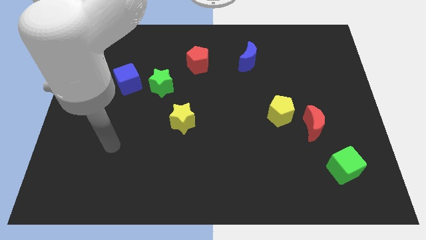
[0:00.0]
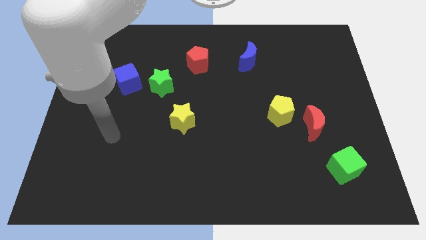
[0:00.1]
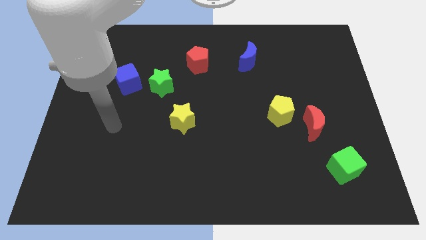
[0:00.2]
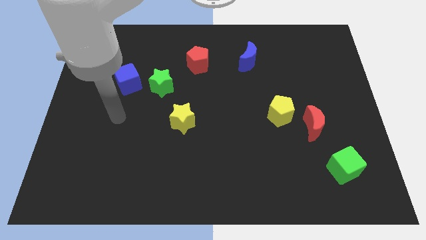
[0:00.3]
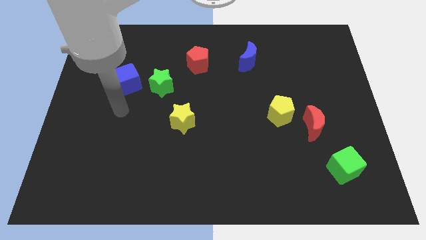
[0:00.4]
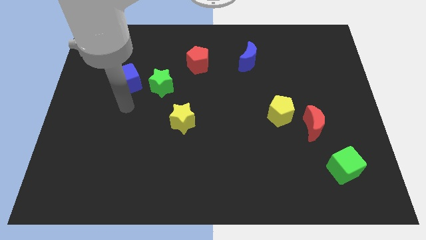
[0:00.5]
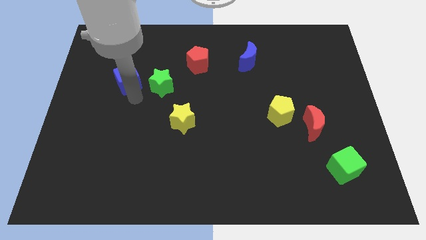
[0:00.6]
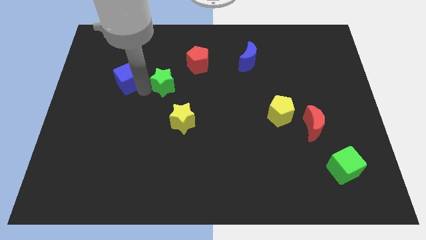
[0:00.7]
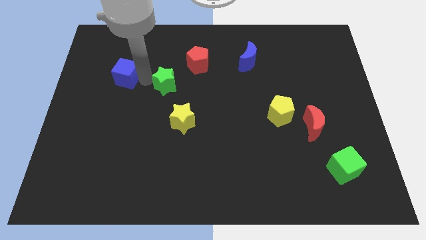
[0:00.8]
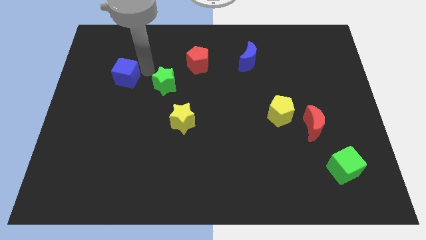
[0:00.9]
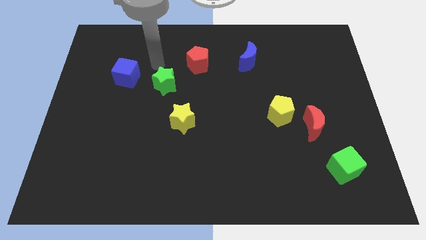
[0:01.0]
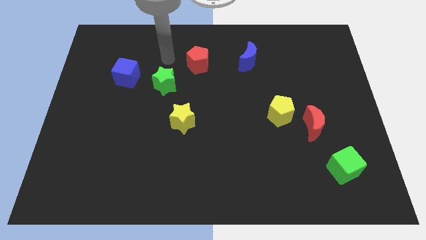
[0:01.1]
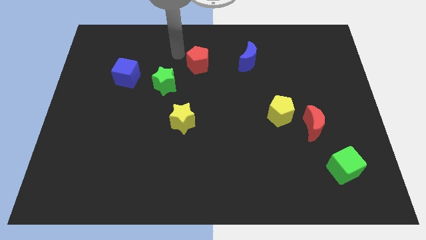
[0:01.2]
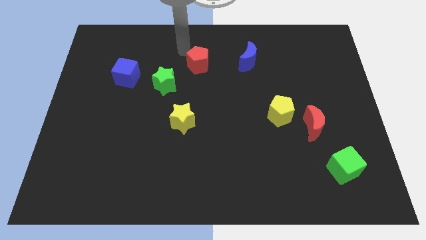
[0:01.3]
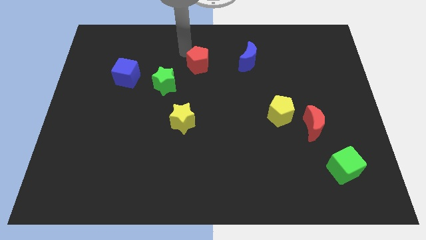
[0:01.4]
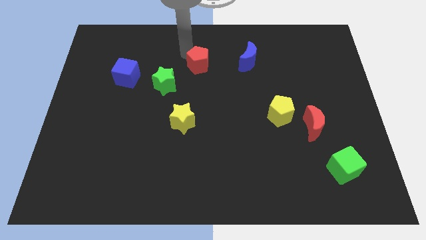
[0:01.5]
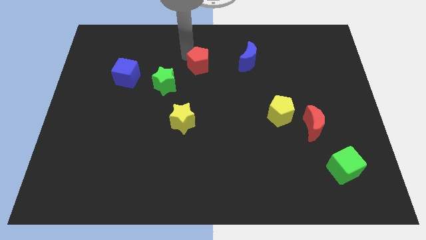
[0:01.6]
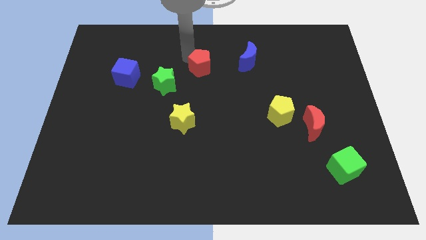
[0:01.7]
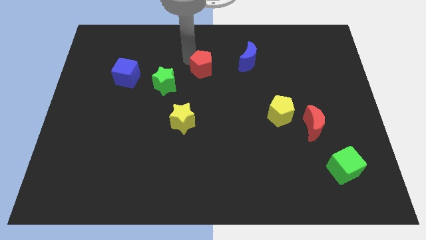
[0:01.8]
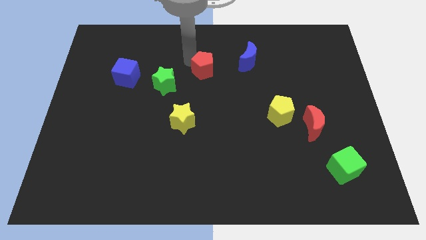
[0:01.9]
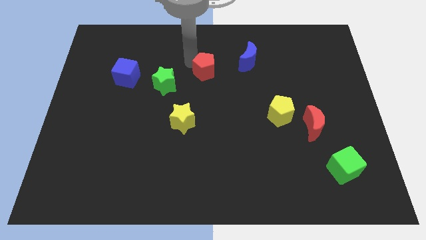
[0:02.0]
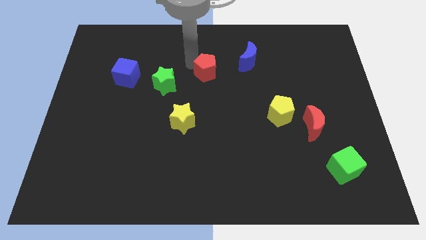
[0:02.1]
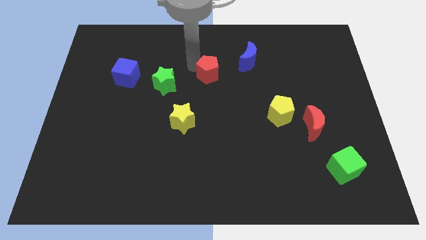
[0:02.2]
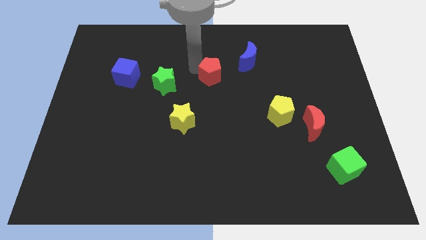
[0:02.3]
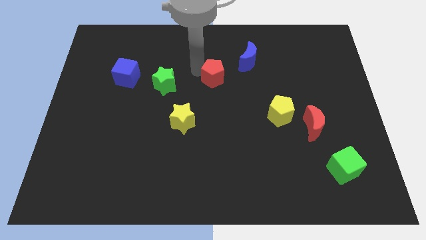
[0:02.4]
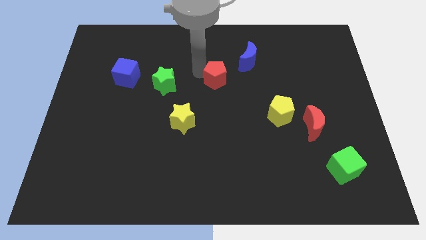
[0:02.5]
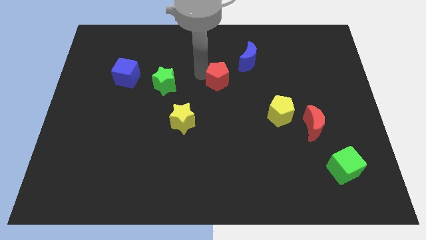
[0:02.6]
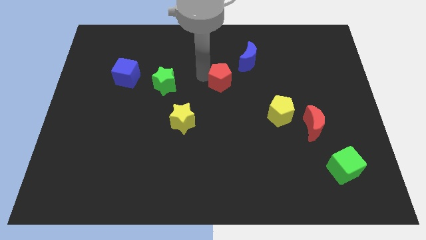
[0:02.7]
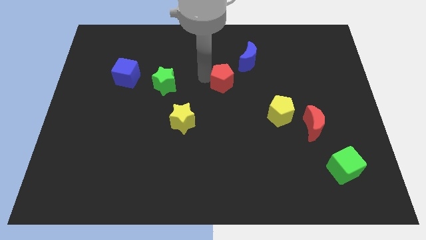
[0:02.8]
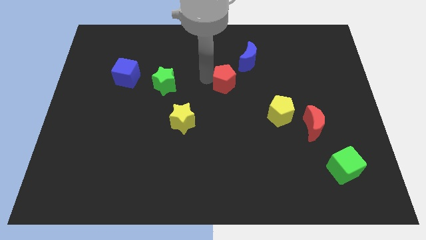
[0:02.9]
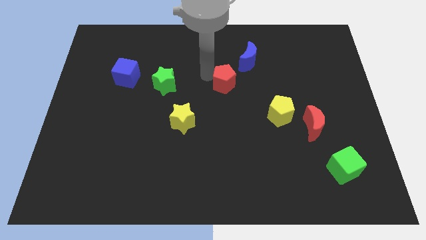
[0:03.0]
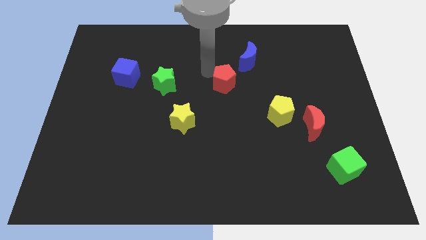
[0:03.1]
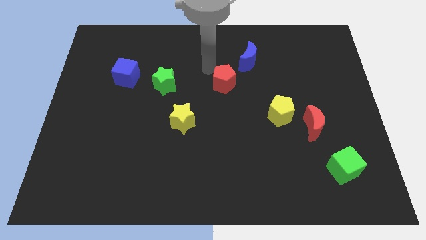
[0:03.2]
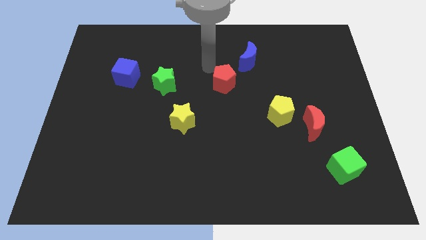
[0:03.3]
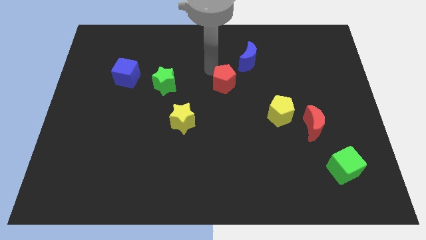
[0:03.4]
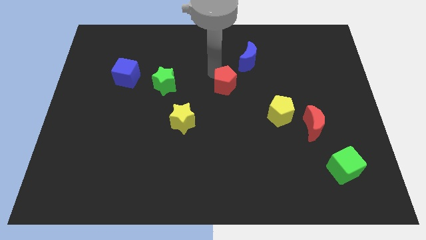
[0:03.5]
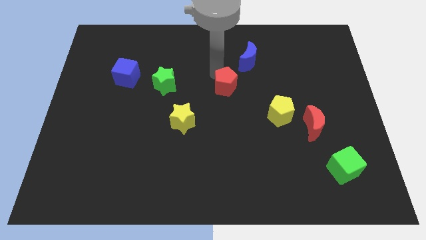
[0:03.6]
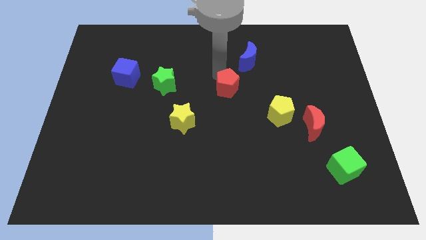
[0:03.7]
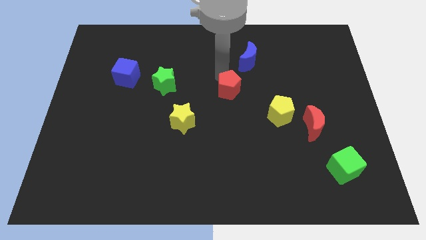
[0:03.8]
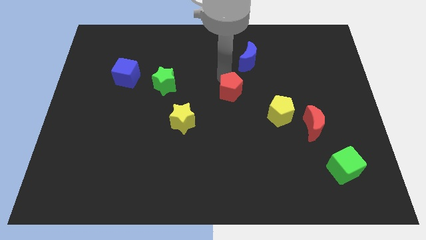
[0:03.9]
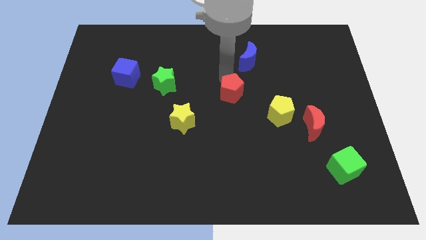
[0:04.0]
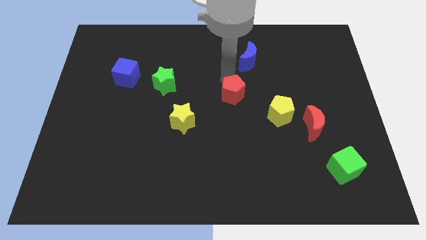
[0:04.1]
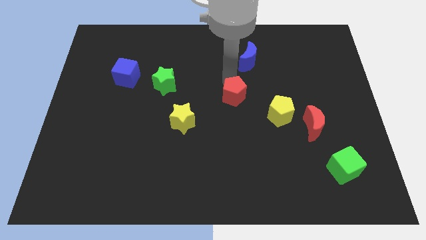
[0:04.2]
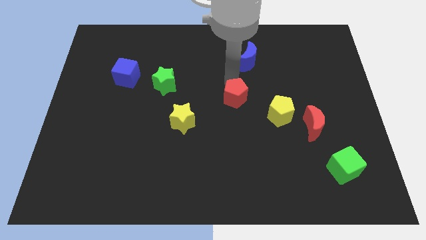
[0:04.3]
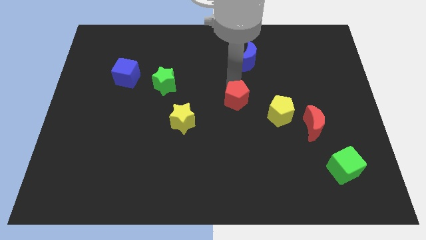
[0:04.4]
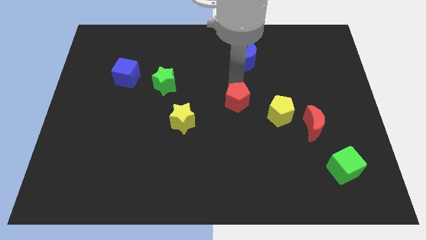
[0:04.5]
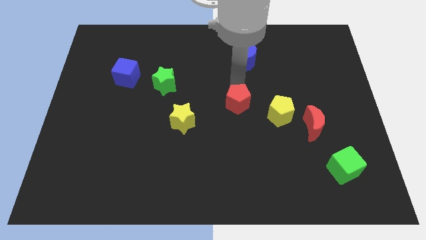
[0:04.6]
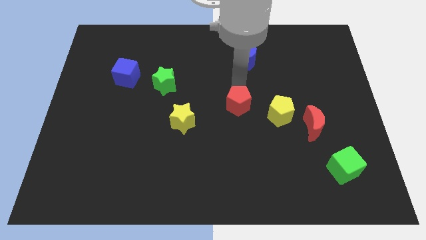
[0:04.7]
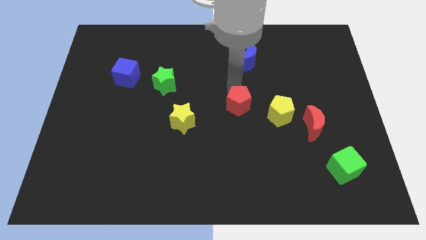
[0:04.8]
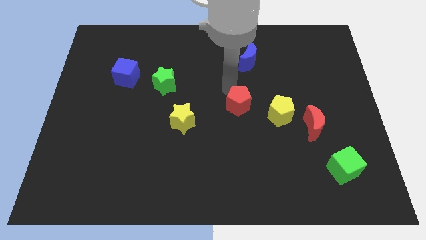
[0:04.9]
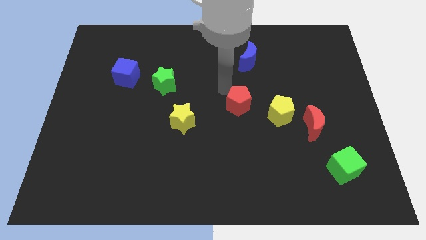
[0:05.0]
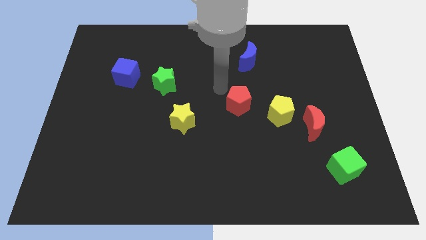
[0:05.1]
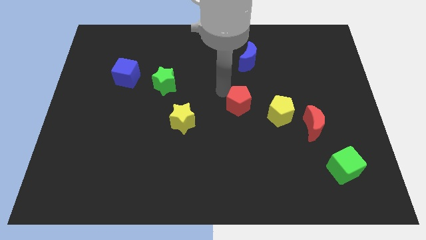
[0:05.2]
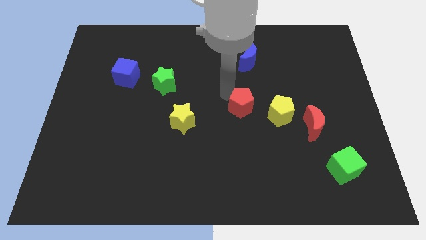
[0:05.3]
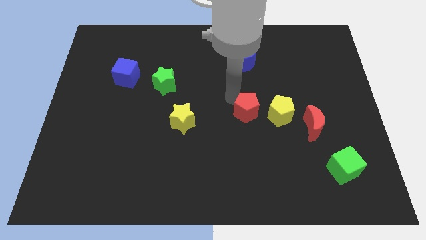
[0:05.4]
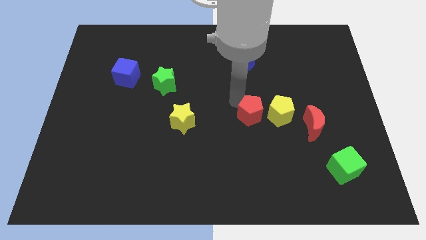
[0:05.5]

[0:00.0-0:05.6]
slide the red pentagon downwards and to the right diagonally

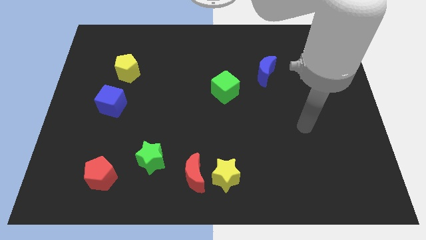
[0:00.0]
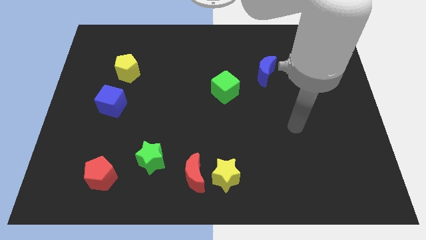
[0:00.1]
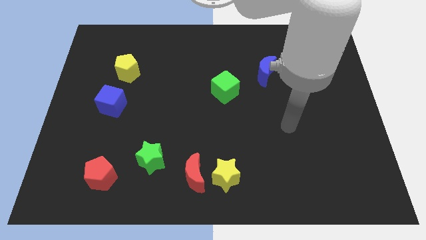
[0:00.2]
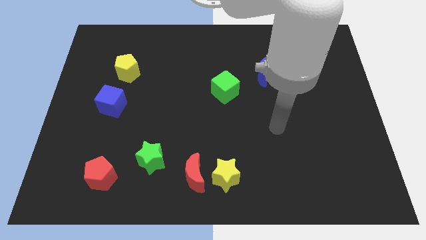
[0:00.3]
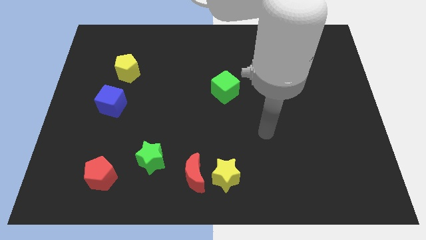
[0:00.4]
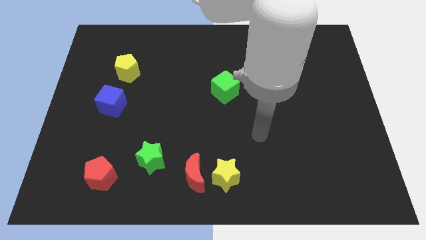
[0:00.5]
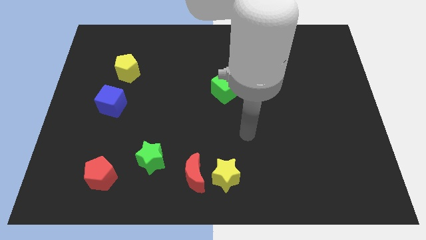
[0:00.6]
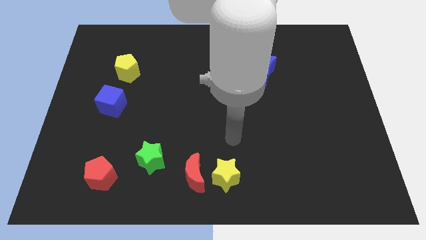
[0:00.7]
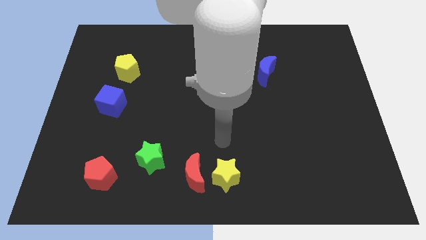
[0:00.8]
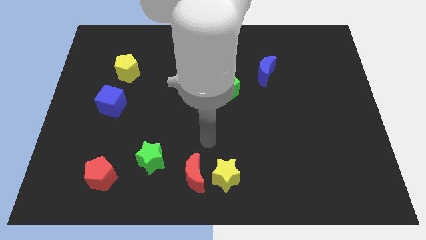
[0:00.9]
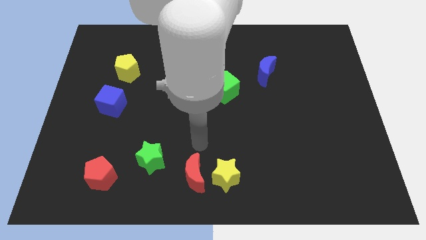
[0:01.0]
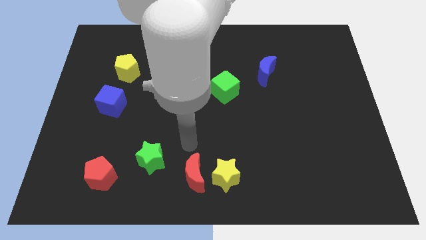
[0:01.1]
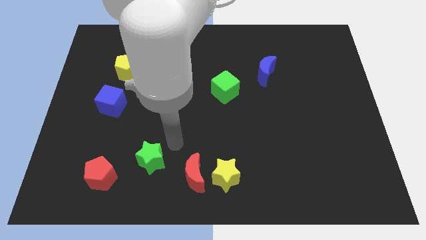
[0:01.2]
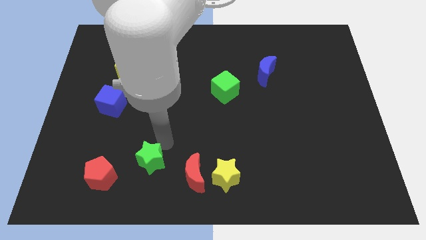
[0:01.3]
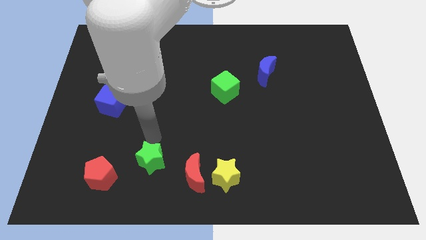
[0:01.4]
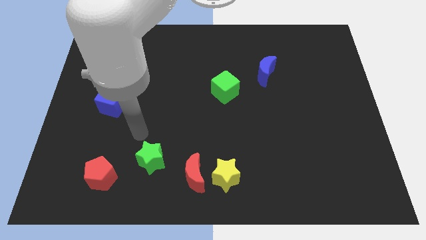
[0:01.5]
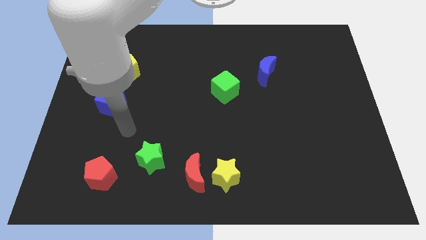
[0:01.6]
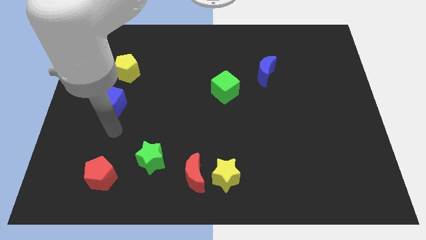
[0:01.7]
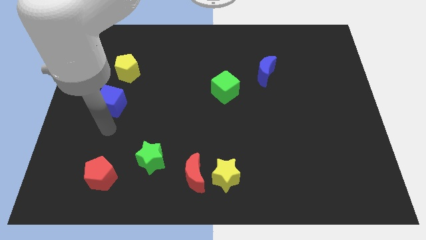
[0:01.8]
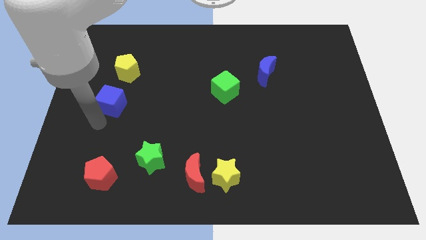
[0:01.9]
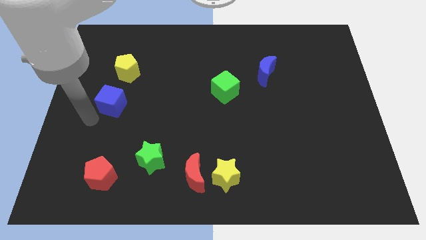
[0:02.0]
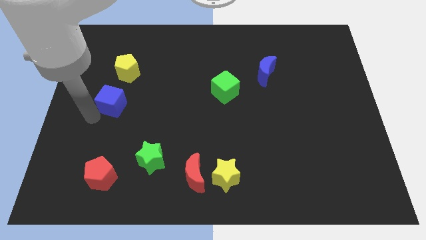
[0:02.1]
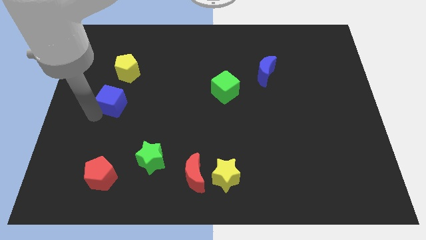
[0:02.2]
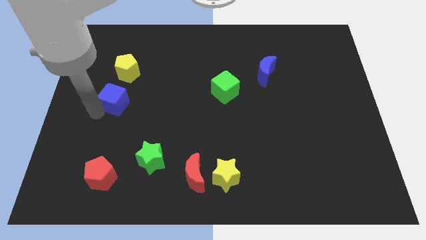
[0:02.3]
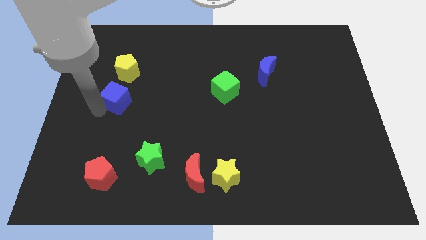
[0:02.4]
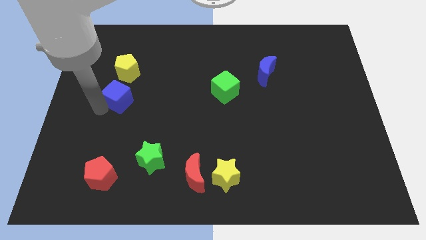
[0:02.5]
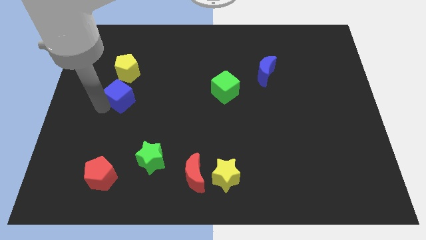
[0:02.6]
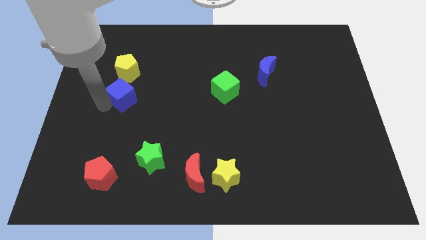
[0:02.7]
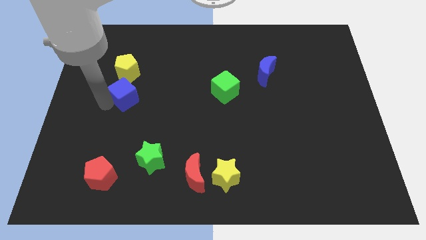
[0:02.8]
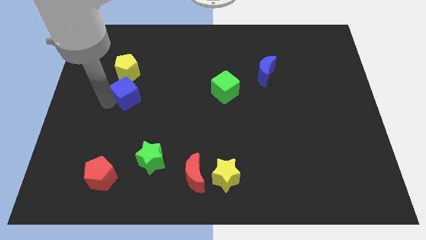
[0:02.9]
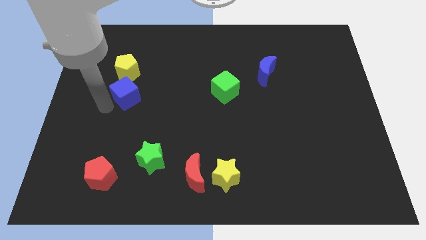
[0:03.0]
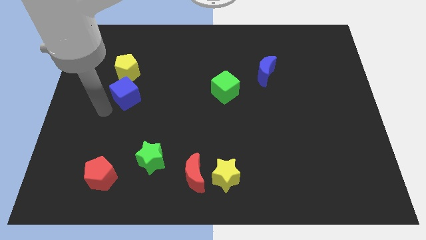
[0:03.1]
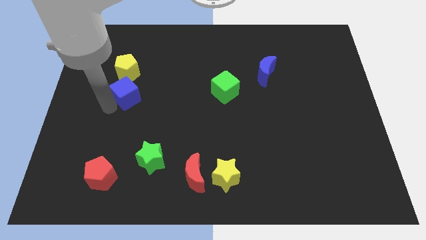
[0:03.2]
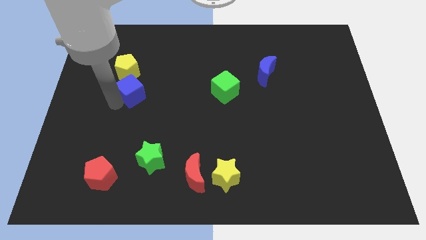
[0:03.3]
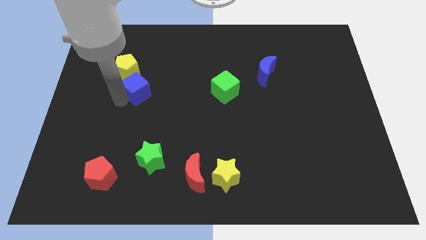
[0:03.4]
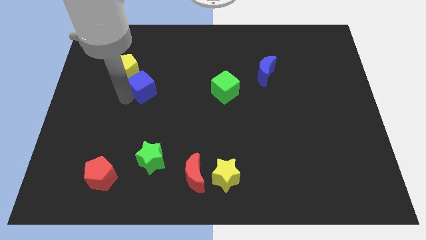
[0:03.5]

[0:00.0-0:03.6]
move the blue cube up and then right a bit
